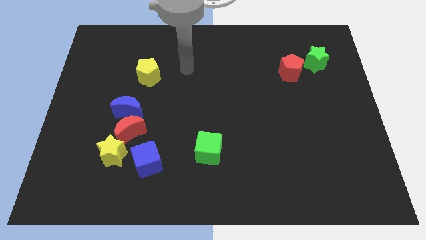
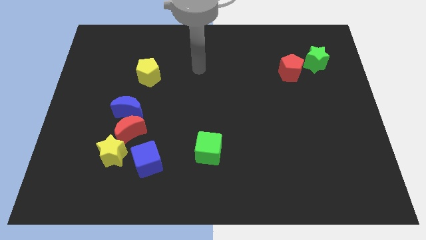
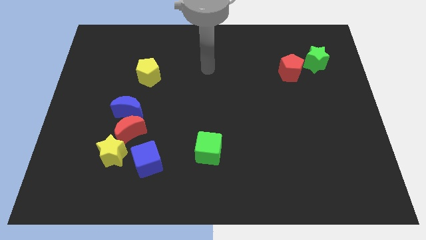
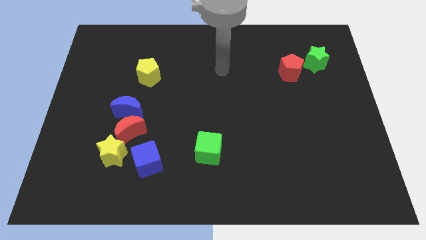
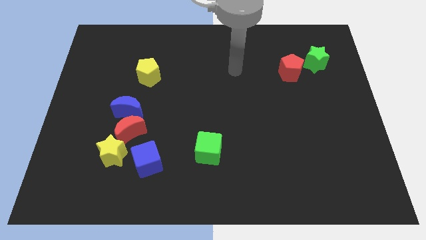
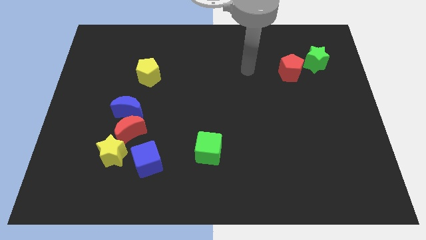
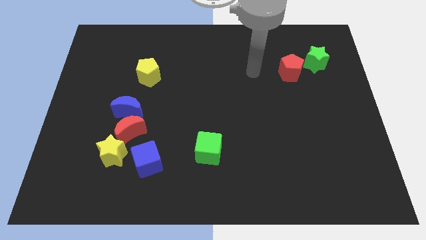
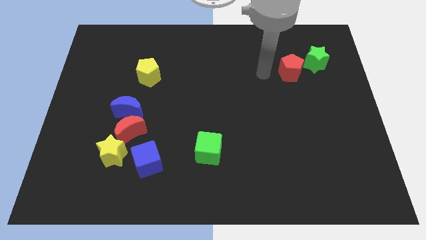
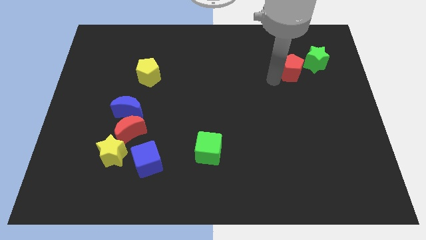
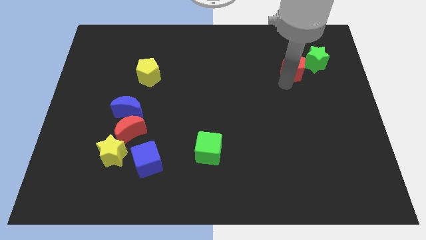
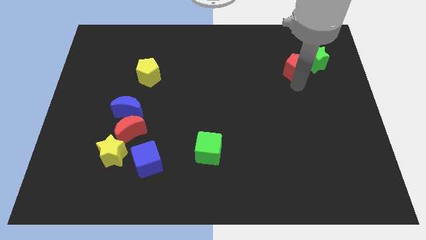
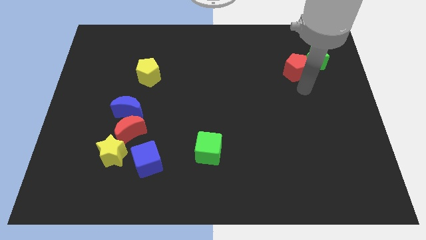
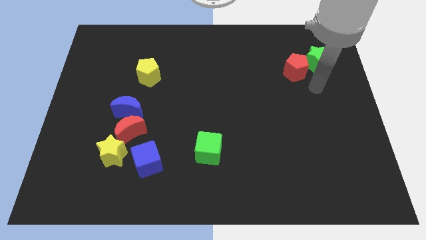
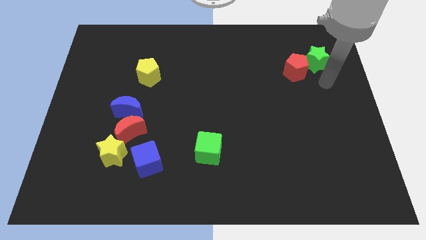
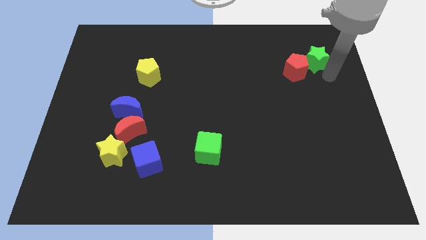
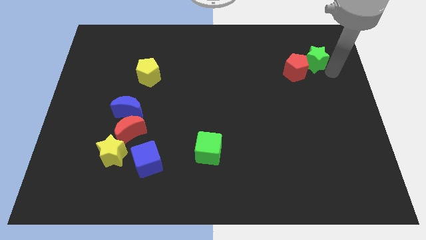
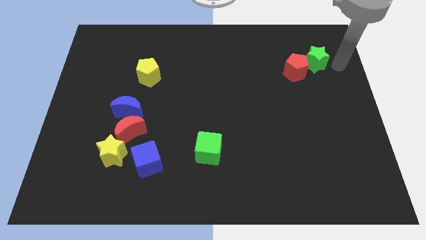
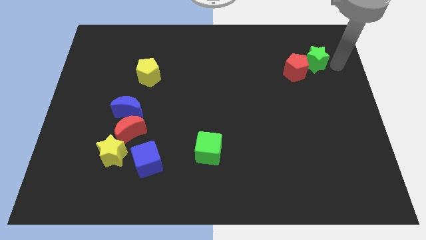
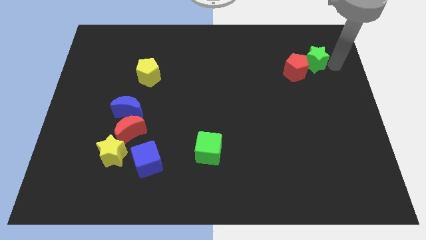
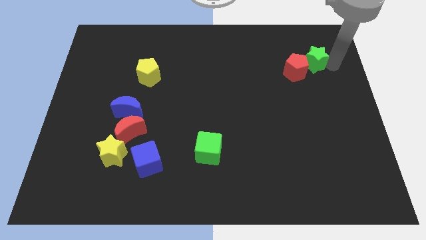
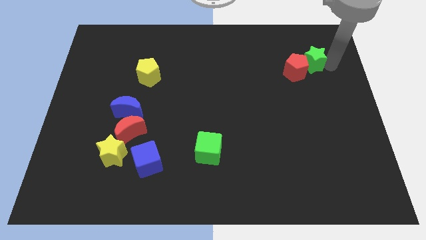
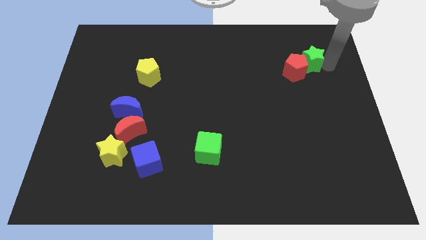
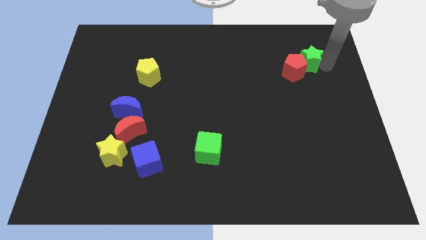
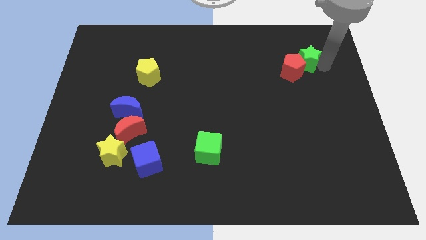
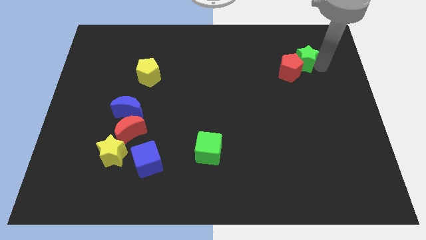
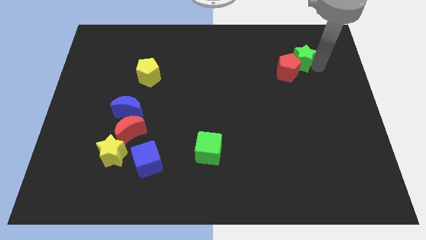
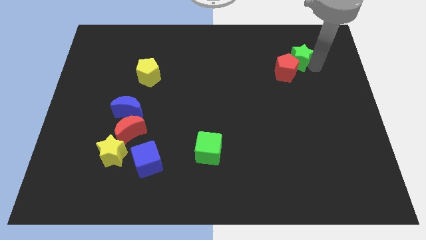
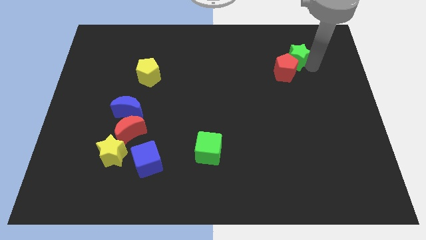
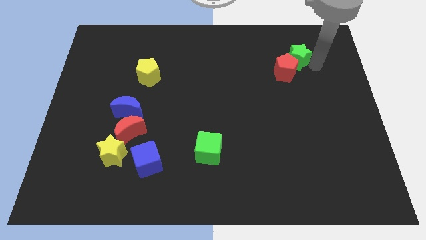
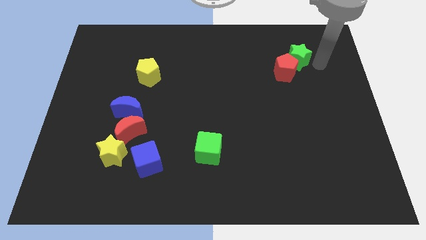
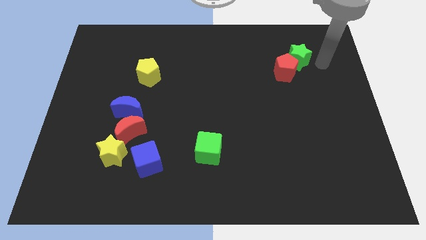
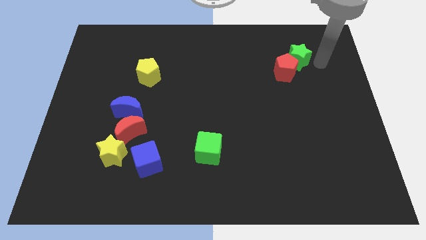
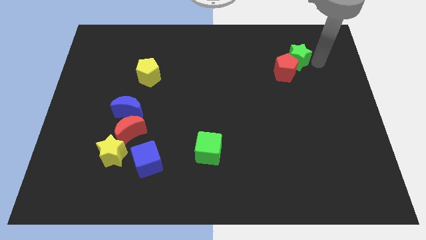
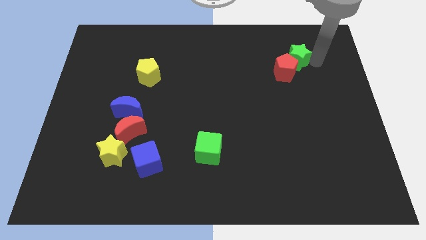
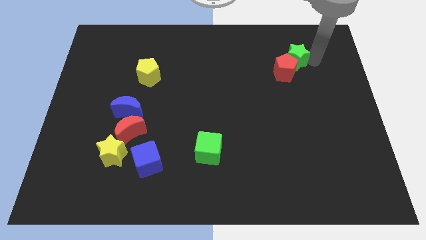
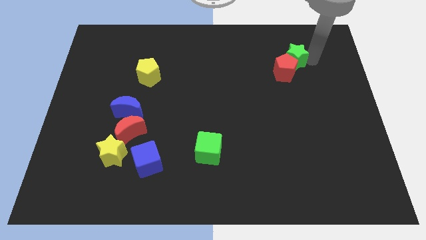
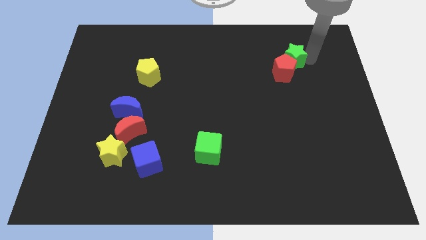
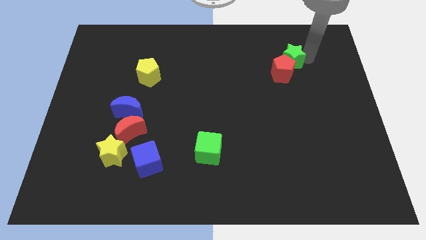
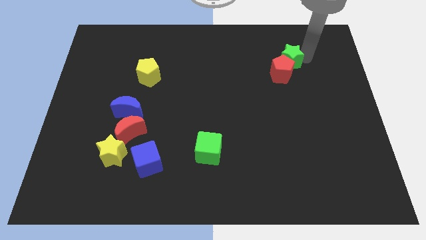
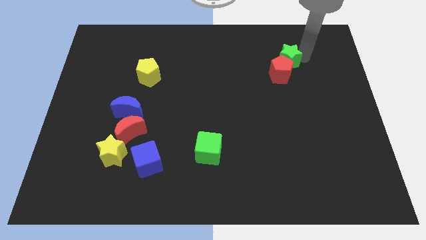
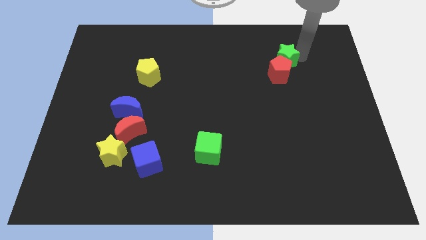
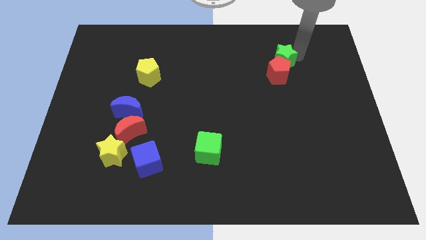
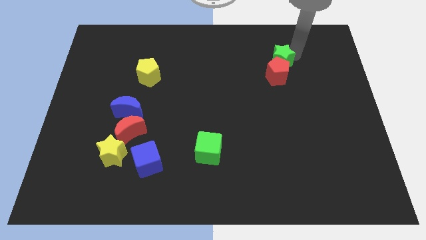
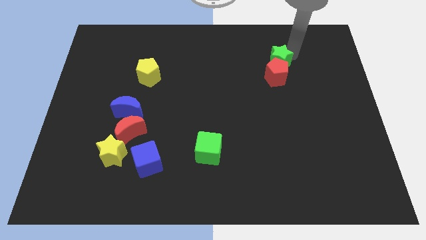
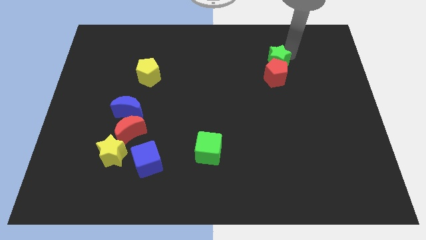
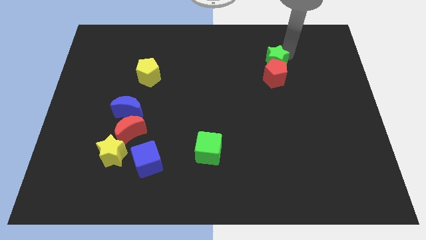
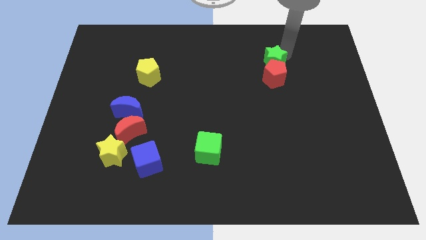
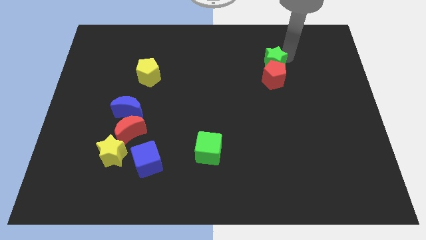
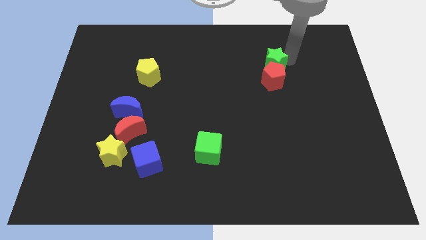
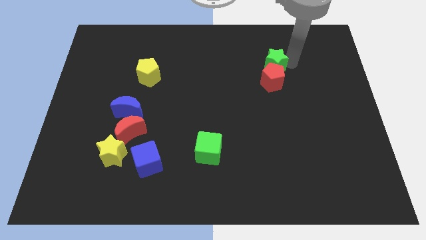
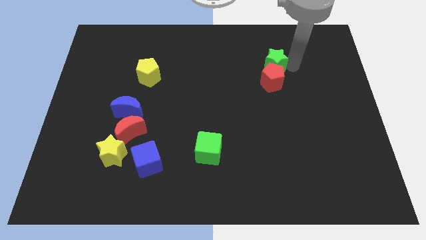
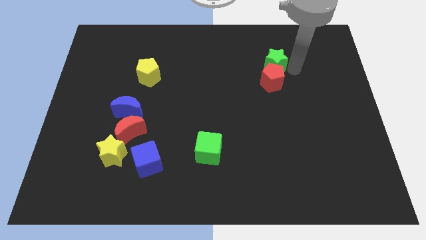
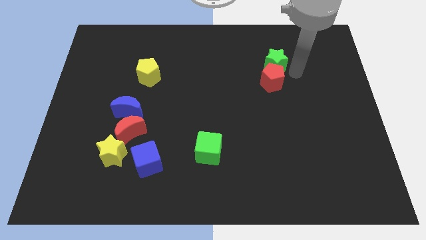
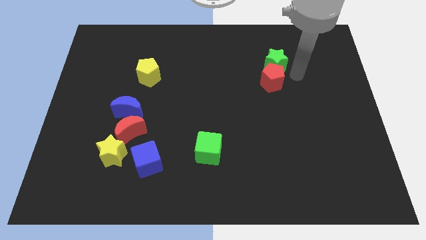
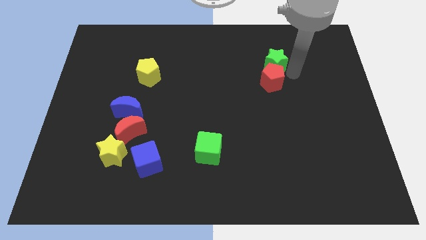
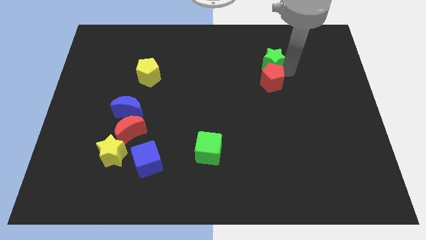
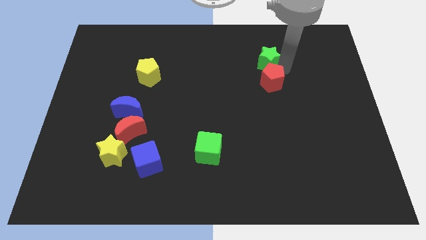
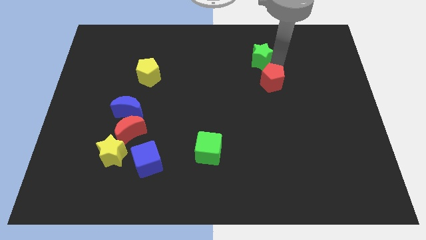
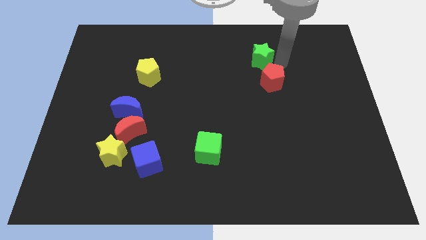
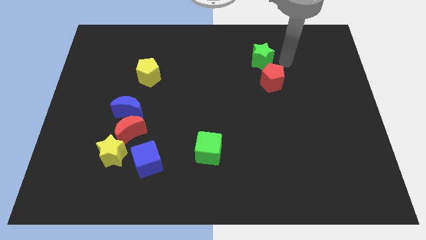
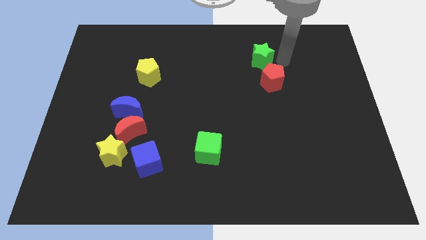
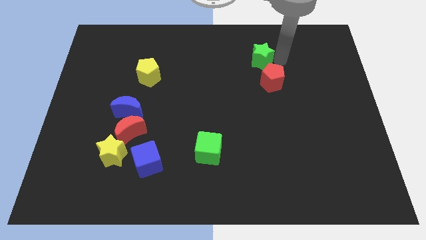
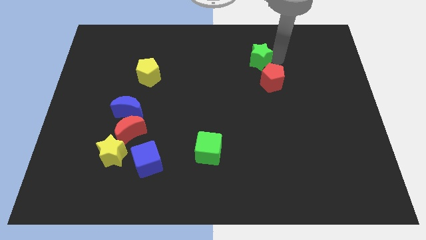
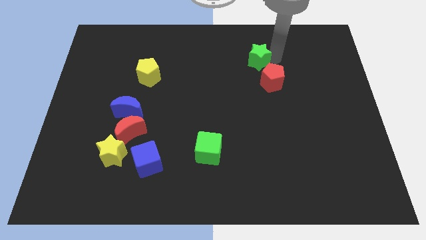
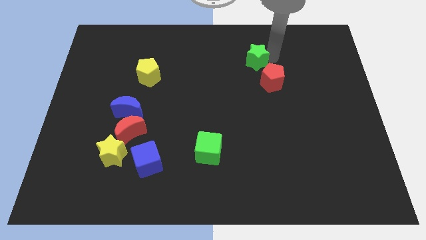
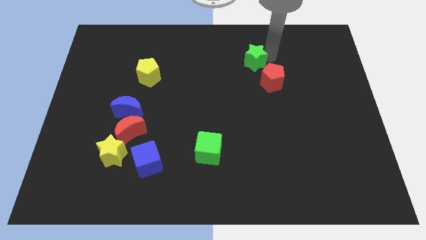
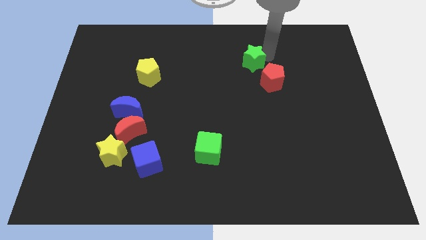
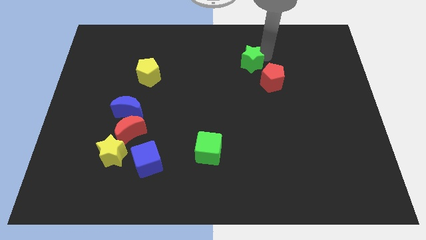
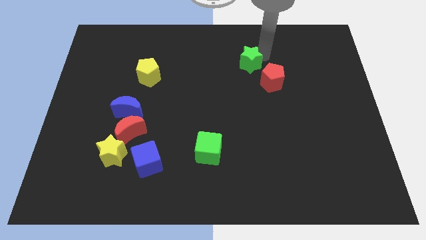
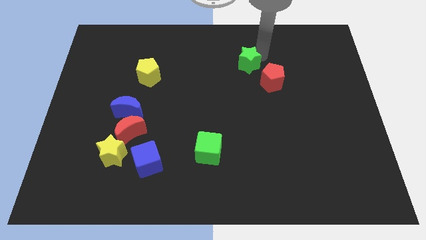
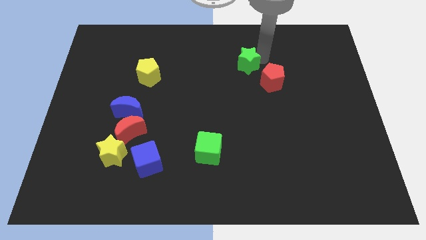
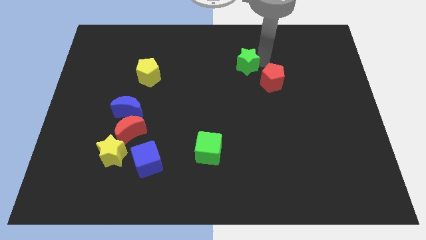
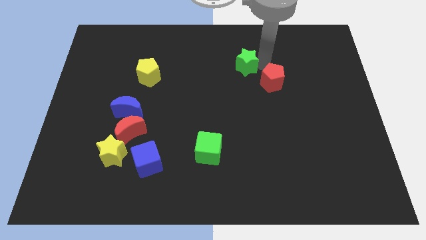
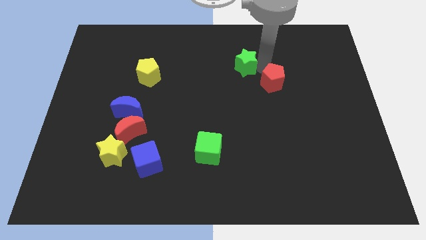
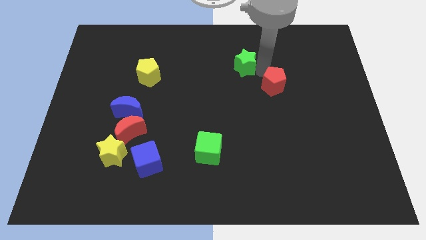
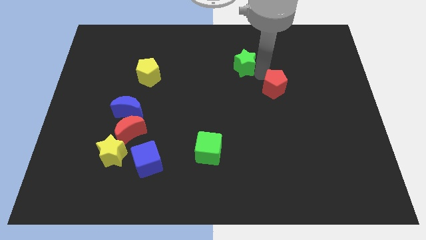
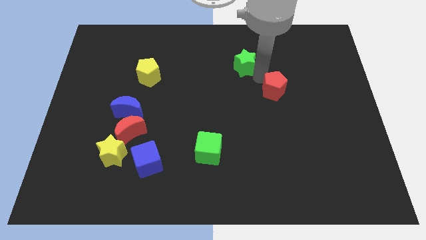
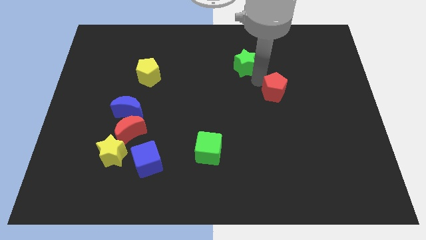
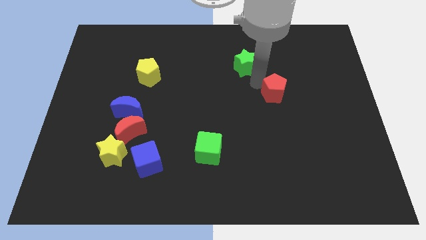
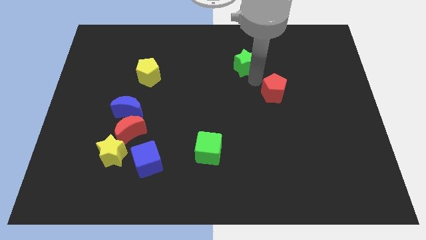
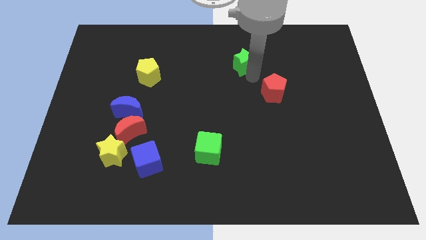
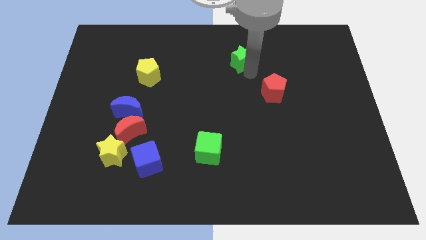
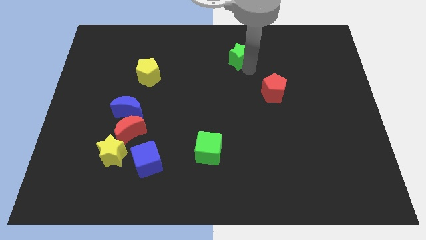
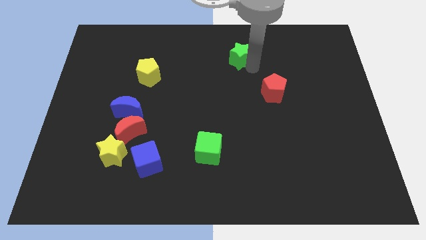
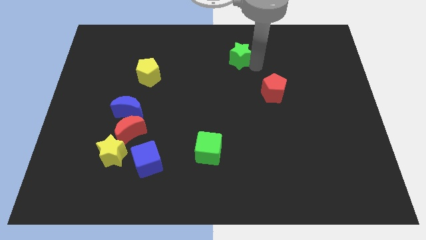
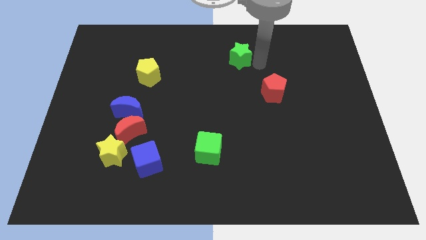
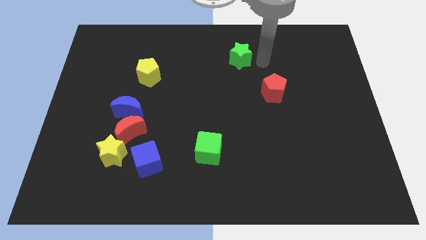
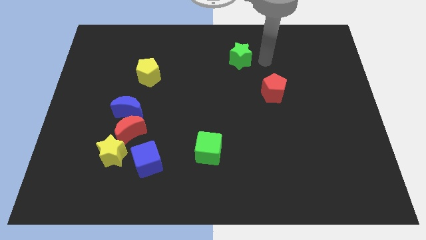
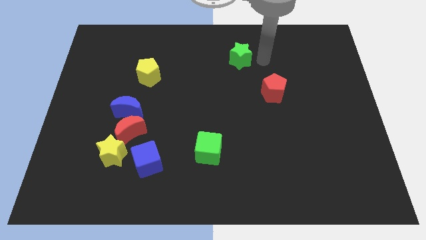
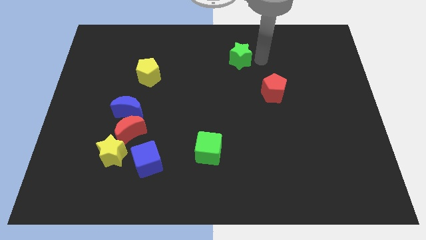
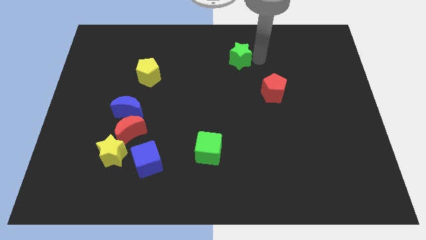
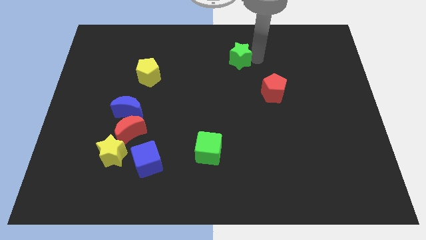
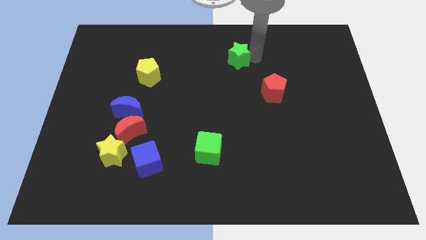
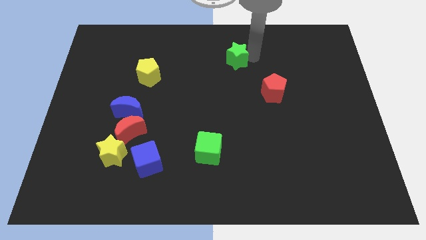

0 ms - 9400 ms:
move the green star to the left
